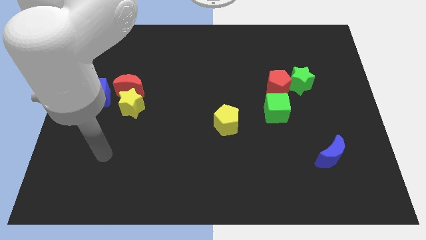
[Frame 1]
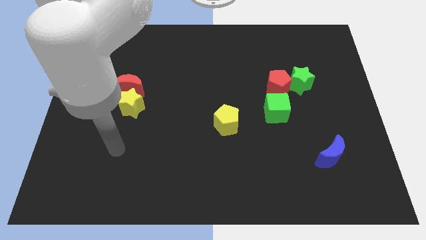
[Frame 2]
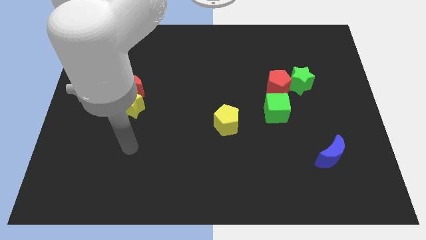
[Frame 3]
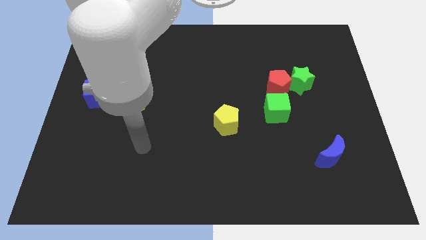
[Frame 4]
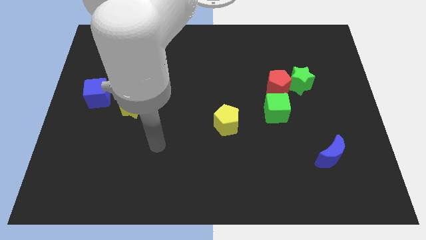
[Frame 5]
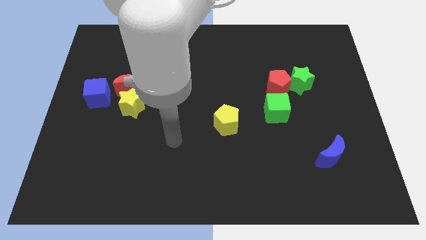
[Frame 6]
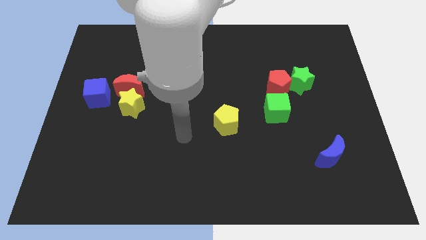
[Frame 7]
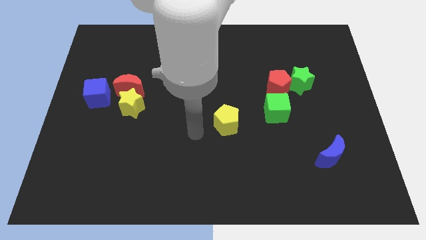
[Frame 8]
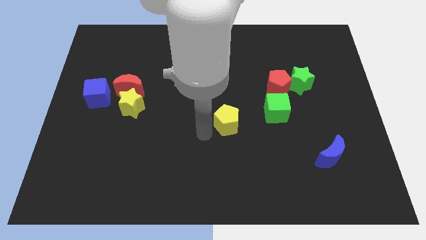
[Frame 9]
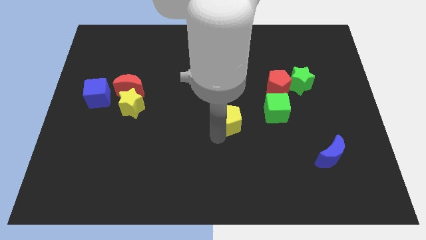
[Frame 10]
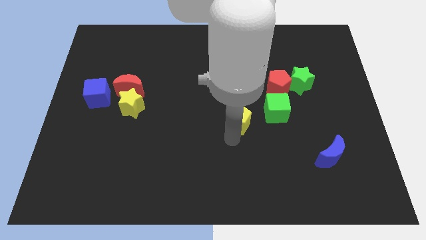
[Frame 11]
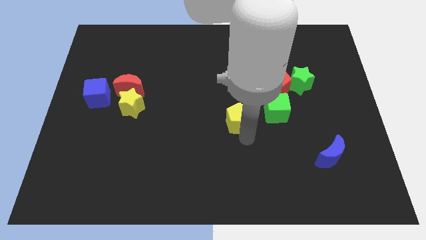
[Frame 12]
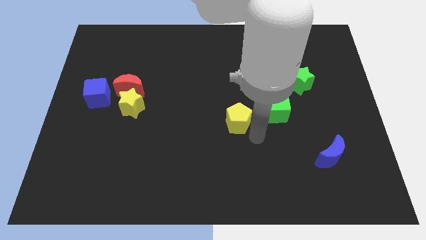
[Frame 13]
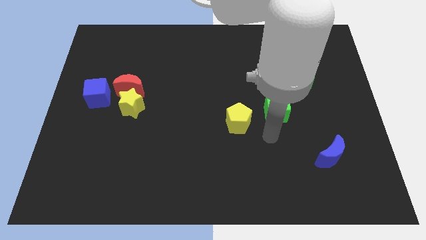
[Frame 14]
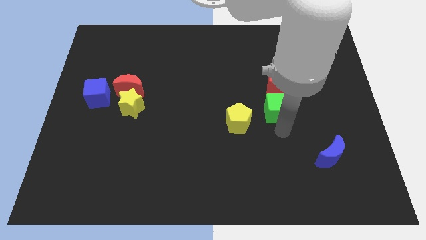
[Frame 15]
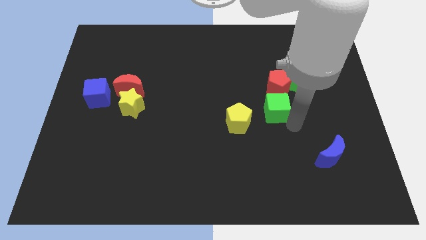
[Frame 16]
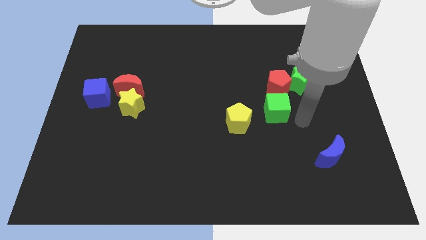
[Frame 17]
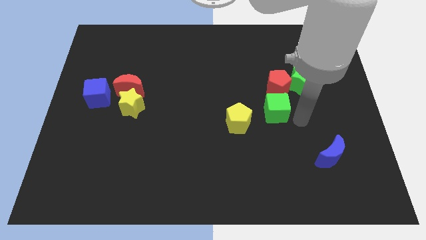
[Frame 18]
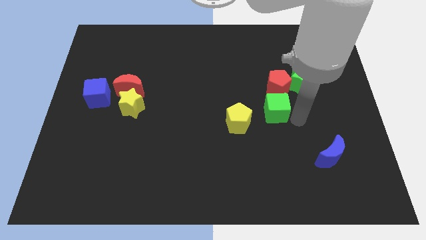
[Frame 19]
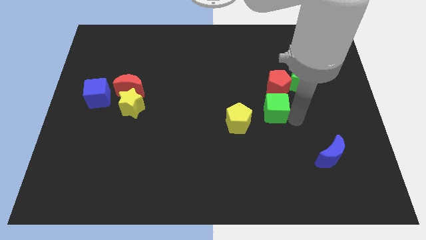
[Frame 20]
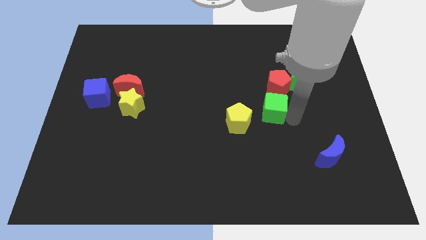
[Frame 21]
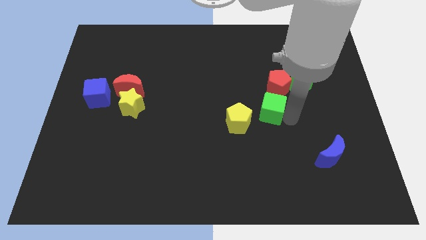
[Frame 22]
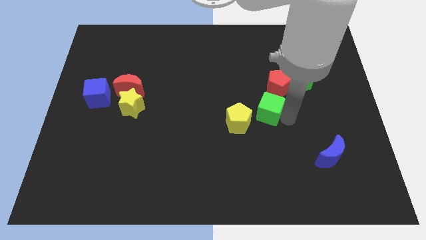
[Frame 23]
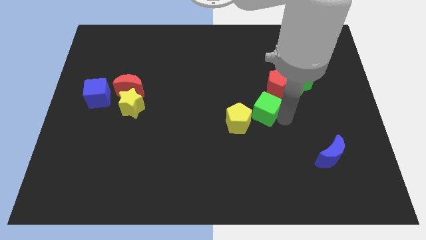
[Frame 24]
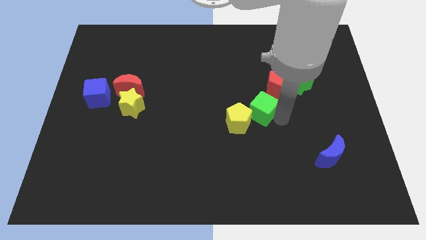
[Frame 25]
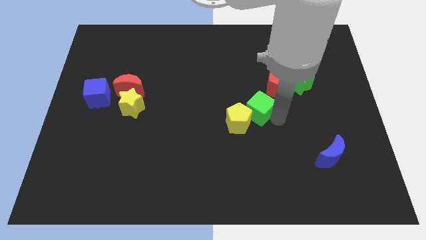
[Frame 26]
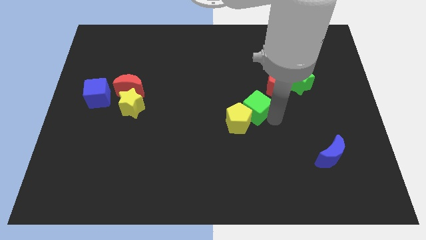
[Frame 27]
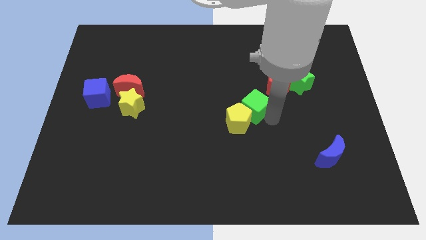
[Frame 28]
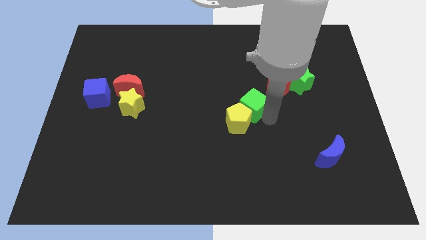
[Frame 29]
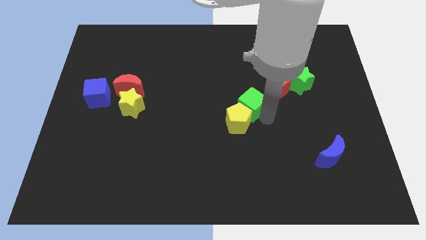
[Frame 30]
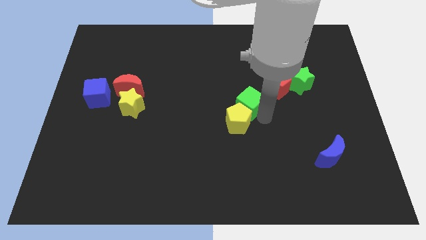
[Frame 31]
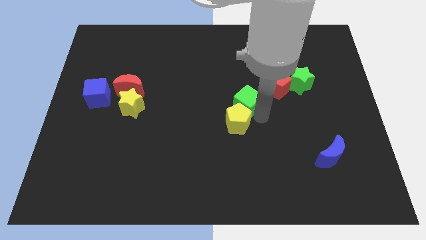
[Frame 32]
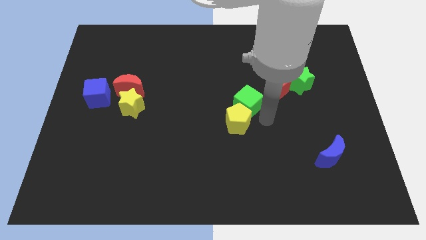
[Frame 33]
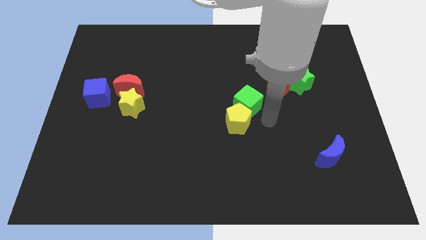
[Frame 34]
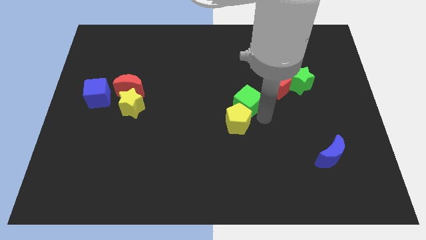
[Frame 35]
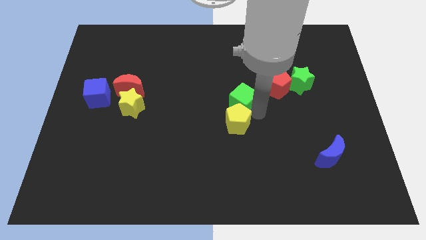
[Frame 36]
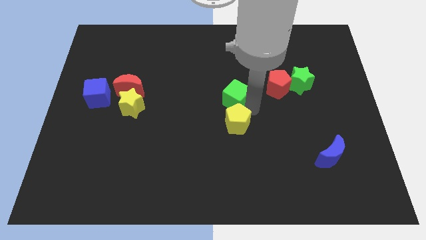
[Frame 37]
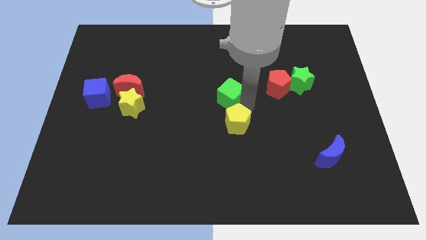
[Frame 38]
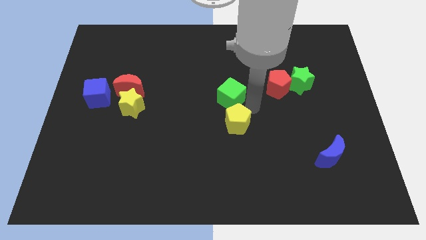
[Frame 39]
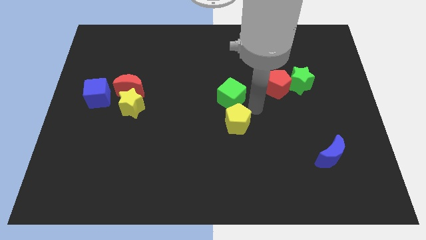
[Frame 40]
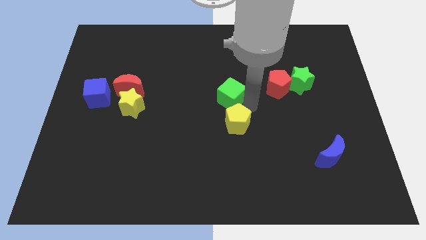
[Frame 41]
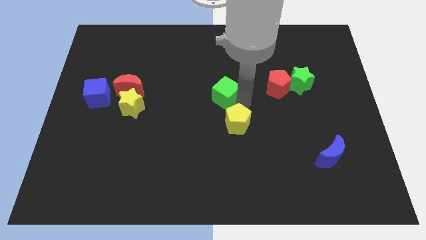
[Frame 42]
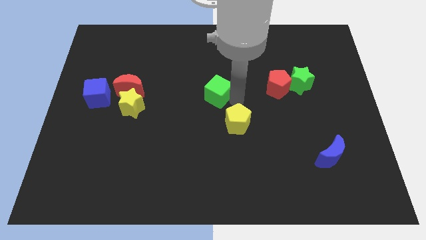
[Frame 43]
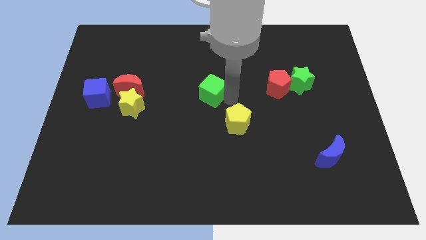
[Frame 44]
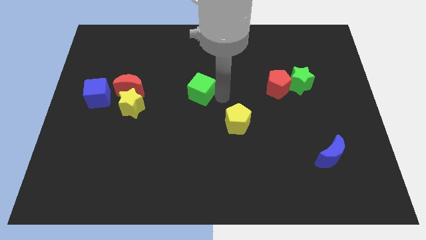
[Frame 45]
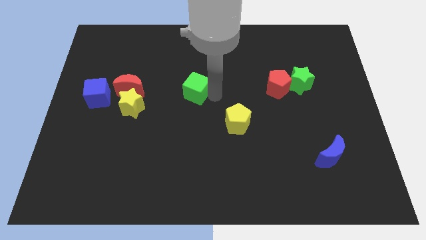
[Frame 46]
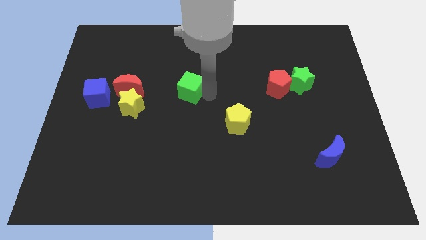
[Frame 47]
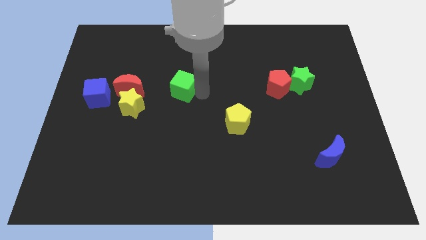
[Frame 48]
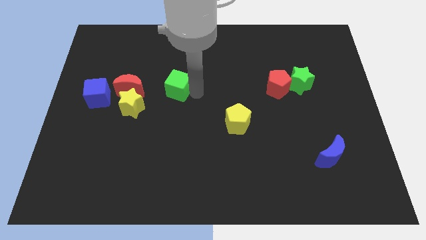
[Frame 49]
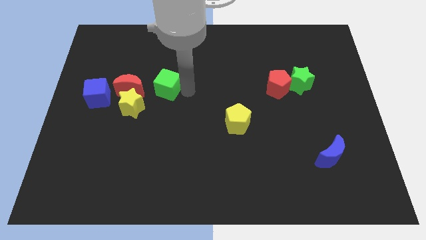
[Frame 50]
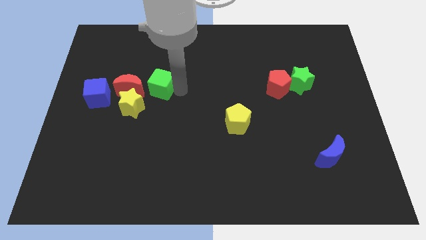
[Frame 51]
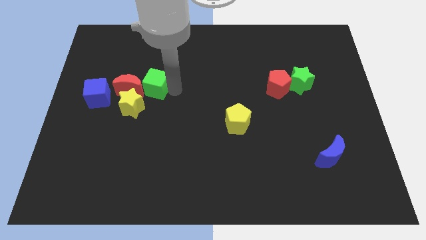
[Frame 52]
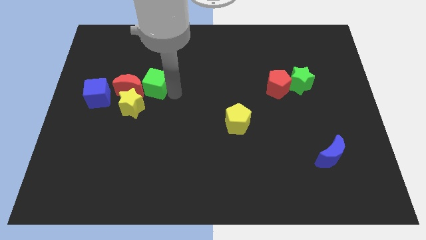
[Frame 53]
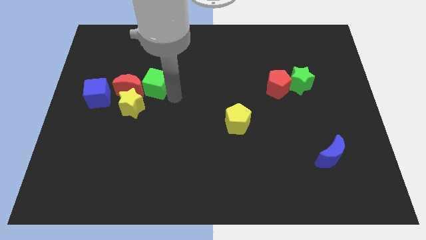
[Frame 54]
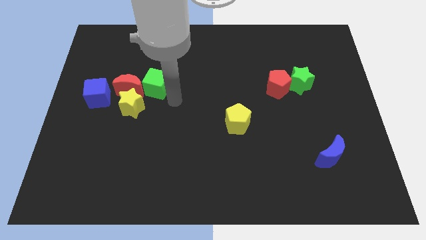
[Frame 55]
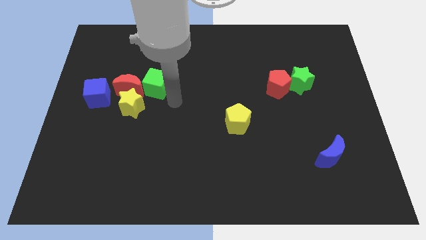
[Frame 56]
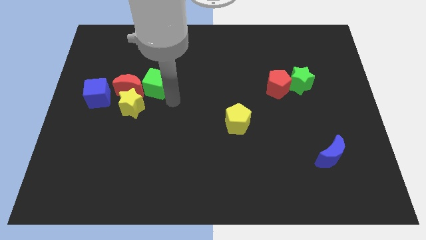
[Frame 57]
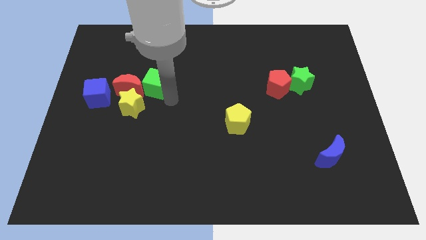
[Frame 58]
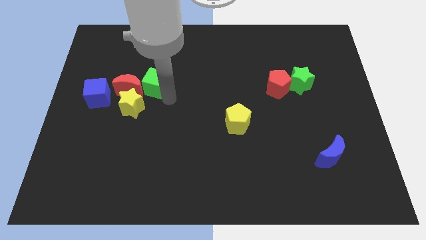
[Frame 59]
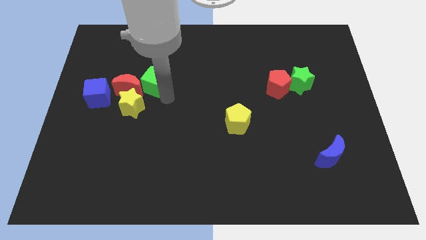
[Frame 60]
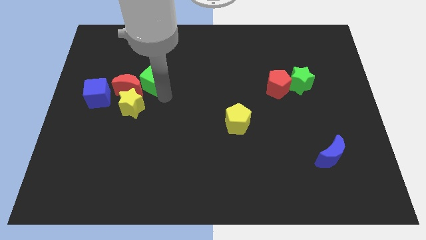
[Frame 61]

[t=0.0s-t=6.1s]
push the green cube to the top side of the yellow star
